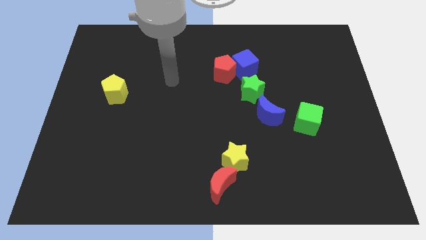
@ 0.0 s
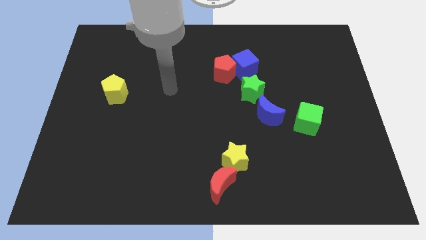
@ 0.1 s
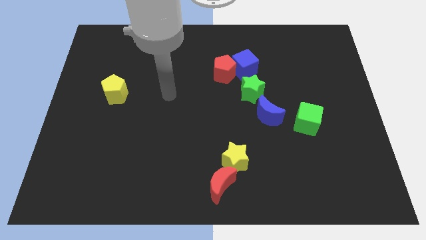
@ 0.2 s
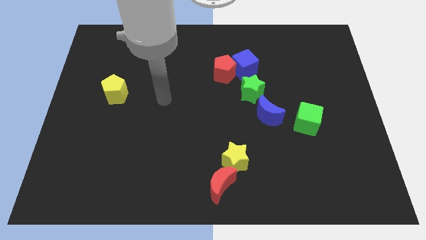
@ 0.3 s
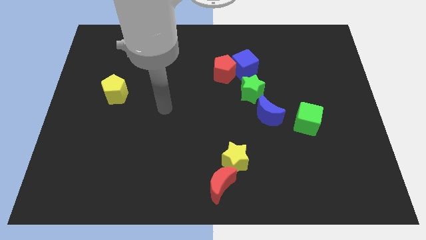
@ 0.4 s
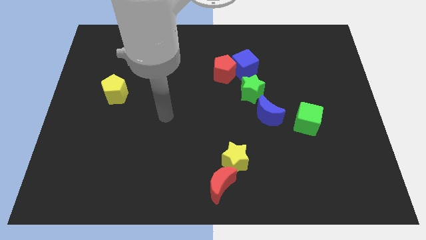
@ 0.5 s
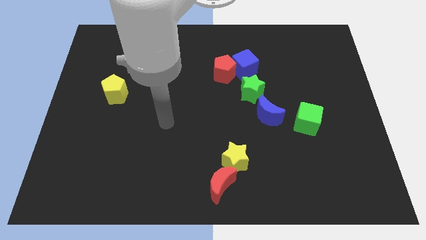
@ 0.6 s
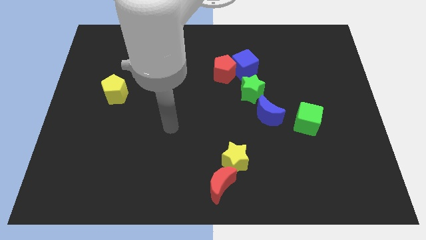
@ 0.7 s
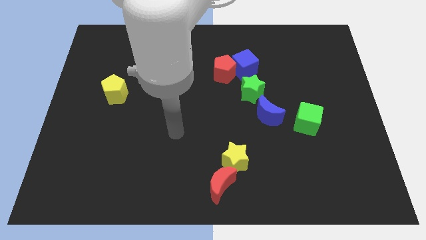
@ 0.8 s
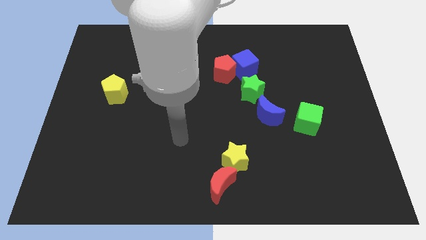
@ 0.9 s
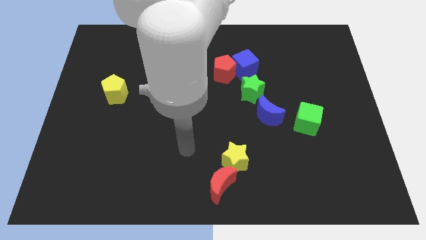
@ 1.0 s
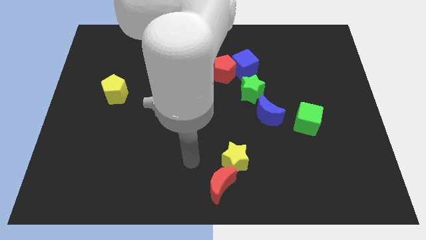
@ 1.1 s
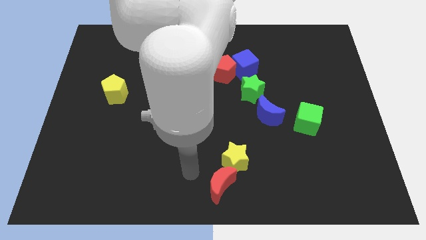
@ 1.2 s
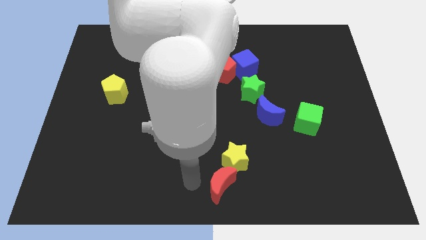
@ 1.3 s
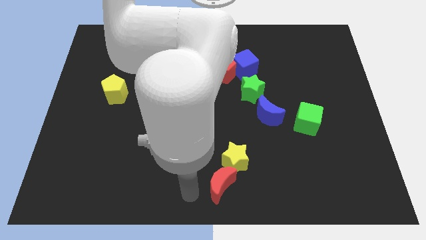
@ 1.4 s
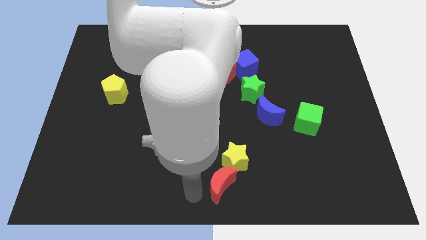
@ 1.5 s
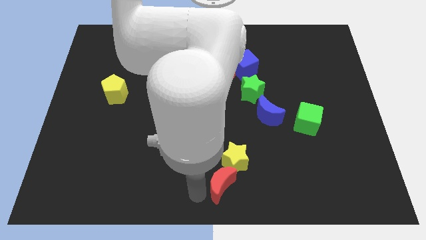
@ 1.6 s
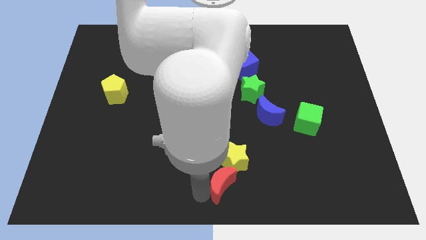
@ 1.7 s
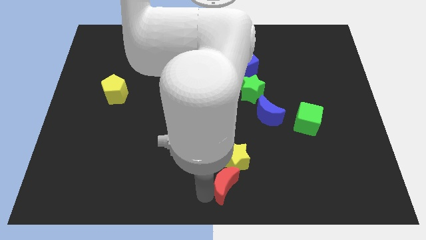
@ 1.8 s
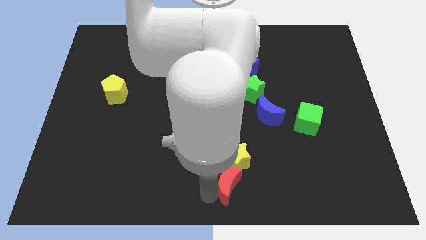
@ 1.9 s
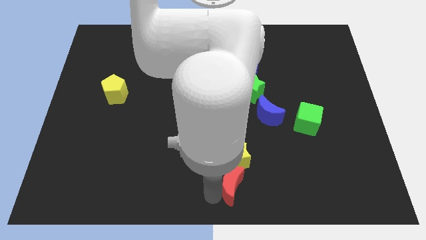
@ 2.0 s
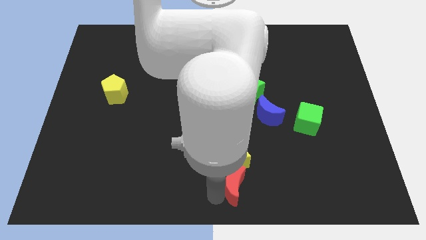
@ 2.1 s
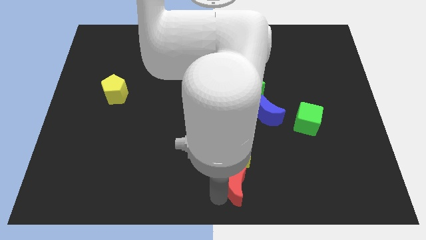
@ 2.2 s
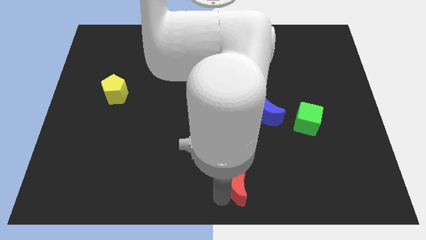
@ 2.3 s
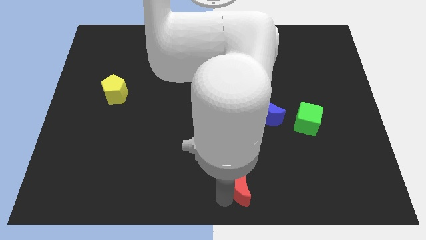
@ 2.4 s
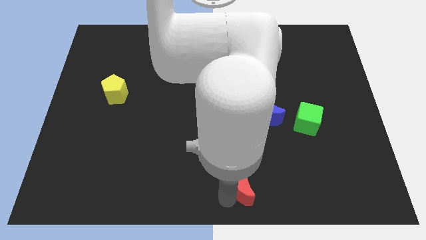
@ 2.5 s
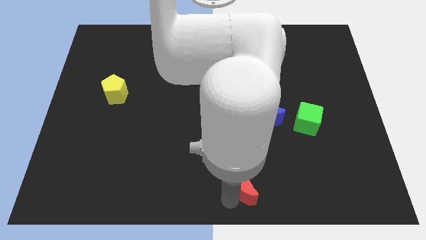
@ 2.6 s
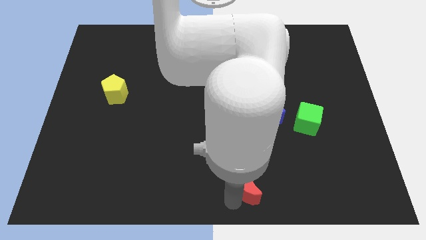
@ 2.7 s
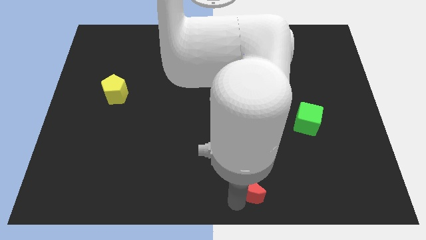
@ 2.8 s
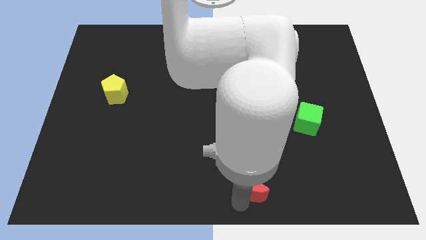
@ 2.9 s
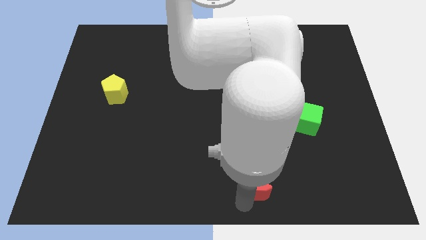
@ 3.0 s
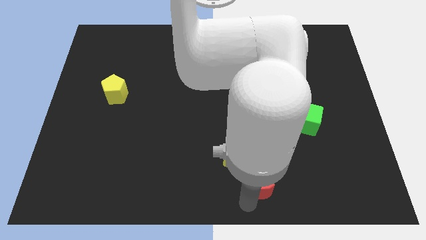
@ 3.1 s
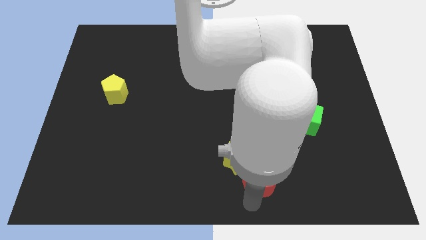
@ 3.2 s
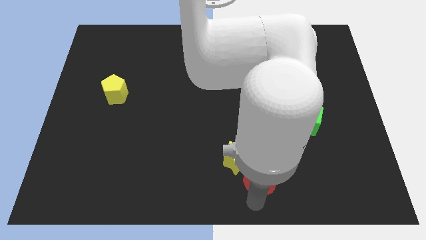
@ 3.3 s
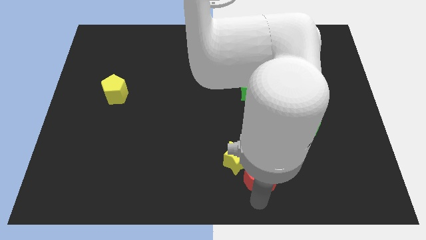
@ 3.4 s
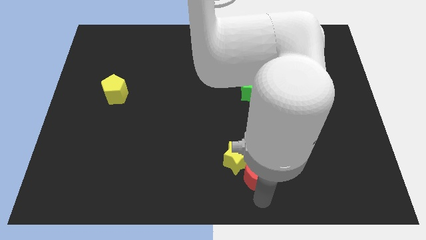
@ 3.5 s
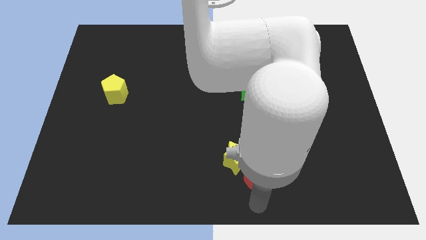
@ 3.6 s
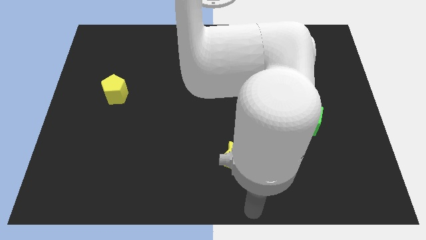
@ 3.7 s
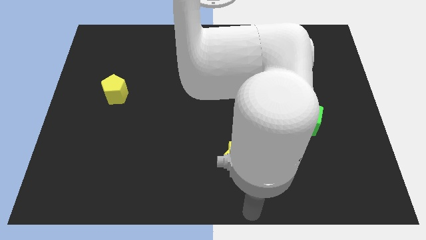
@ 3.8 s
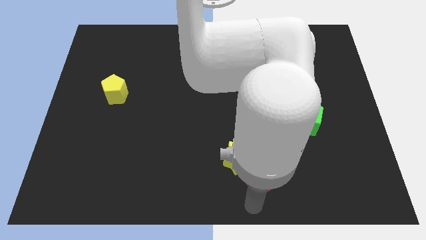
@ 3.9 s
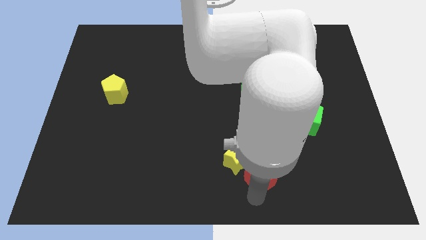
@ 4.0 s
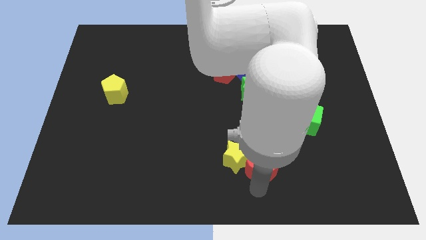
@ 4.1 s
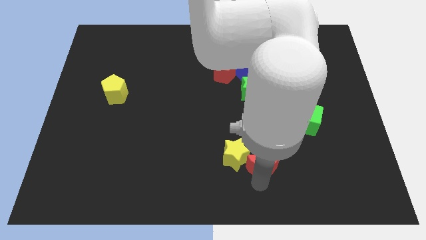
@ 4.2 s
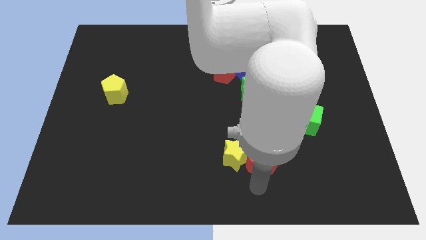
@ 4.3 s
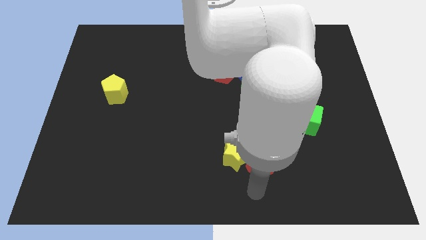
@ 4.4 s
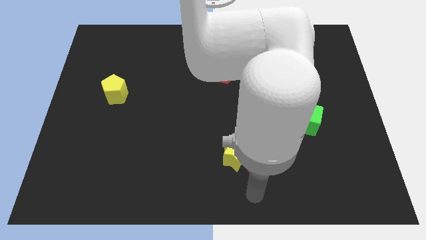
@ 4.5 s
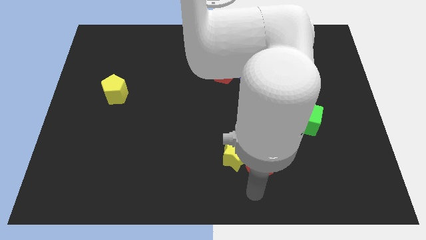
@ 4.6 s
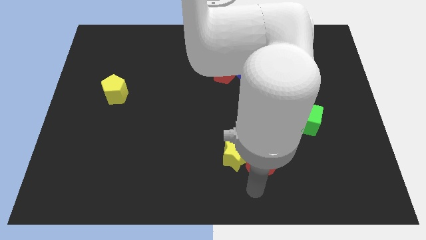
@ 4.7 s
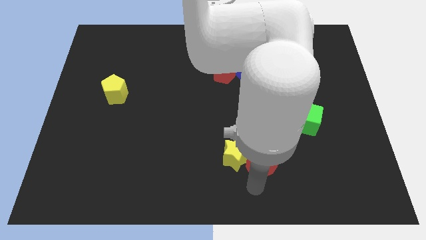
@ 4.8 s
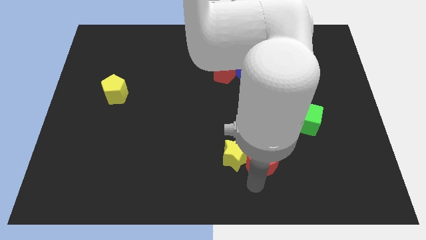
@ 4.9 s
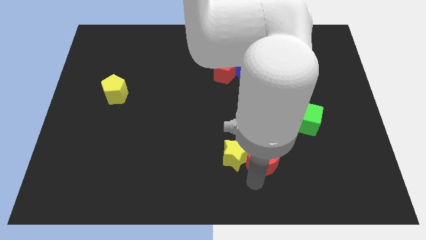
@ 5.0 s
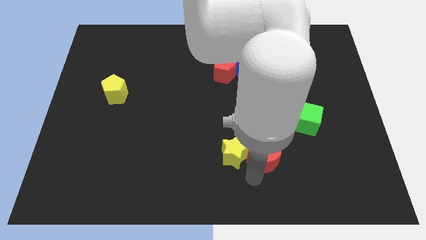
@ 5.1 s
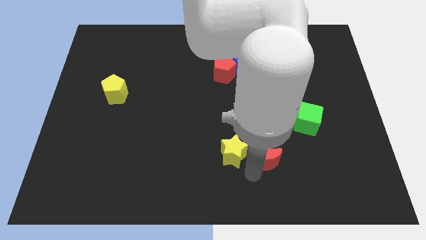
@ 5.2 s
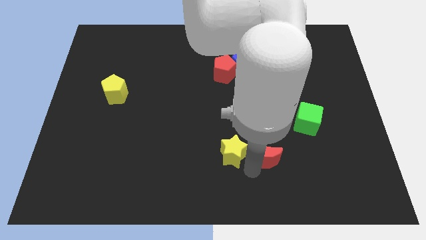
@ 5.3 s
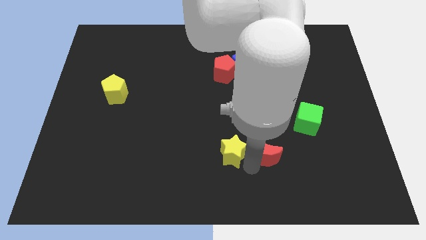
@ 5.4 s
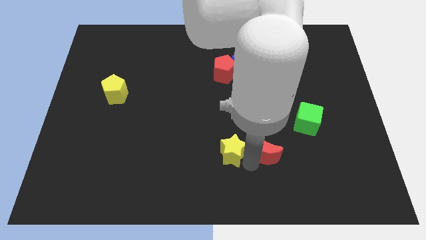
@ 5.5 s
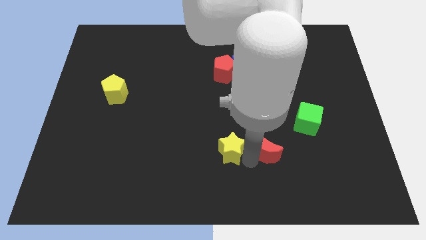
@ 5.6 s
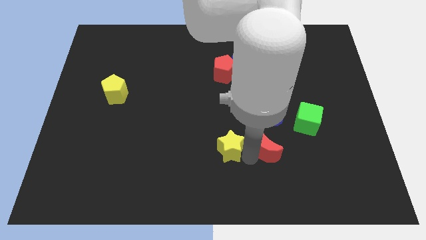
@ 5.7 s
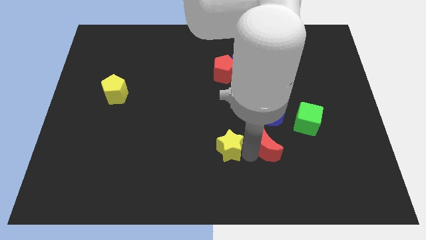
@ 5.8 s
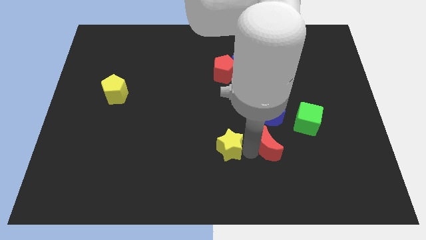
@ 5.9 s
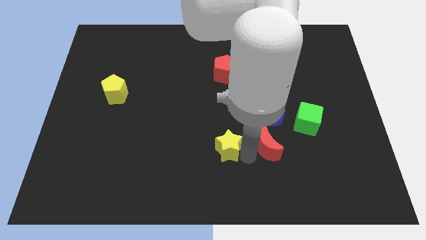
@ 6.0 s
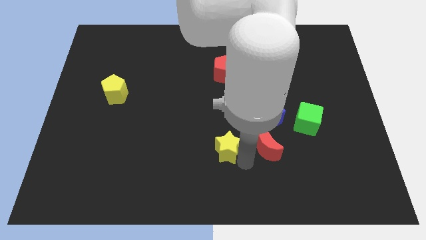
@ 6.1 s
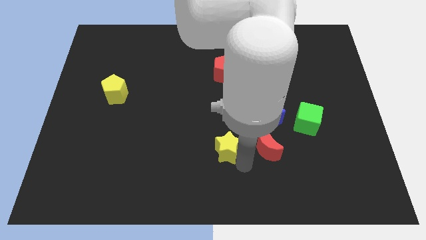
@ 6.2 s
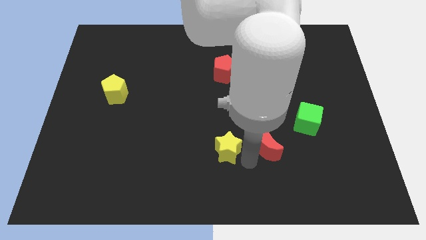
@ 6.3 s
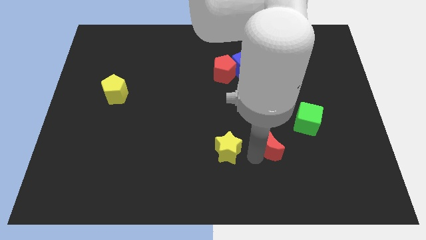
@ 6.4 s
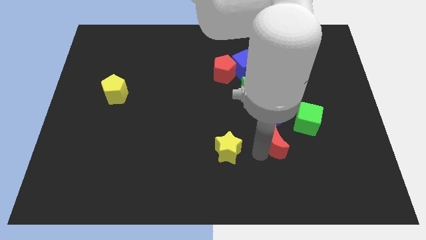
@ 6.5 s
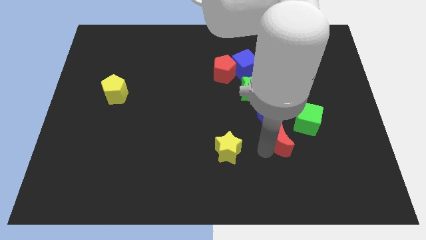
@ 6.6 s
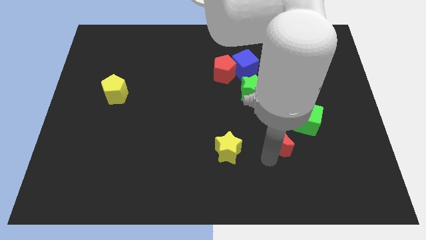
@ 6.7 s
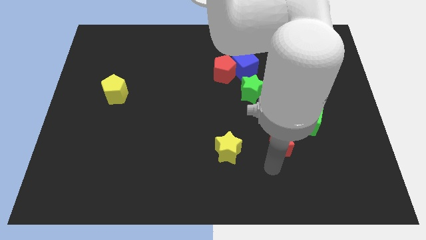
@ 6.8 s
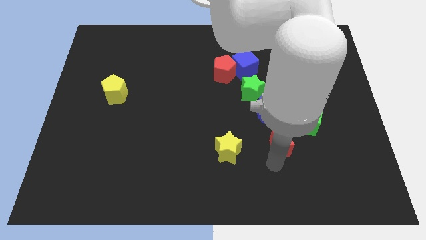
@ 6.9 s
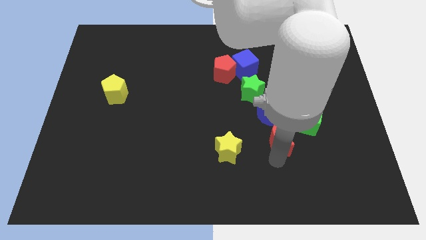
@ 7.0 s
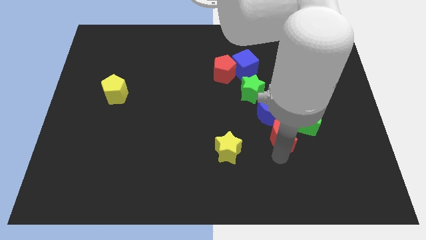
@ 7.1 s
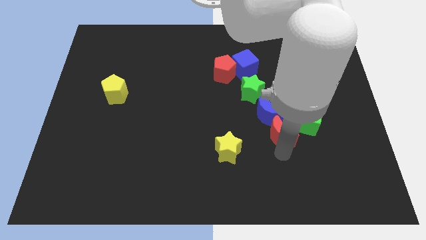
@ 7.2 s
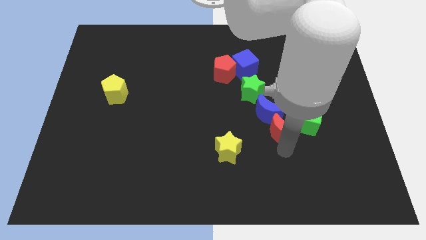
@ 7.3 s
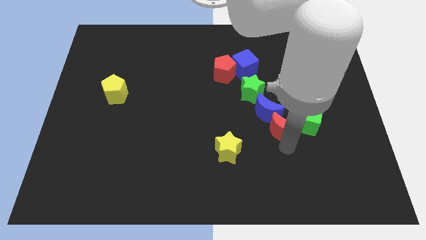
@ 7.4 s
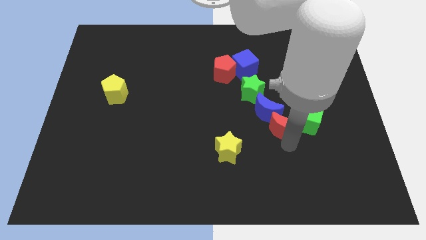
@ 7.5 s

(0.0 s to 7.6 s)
push the red moon diagonally up and right

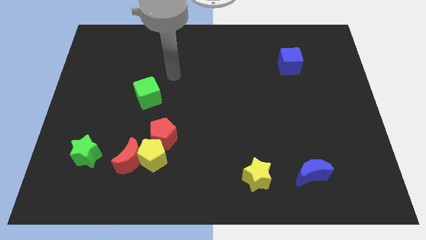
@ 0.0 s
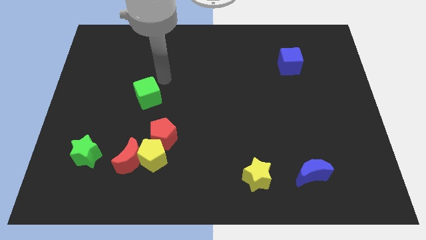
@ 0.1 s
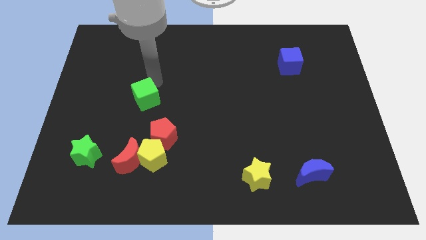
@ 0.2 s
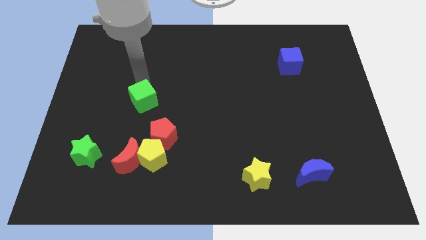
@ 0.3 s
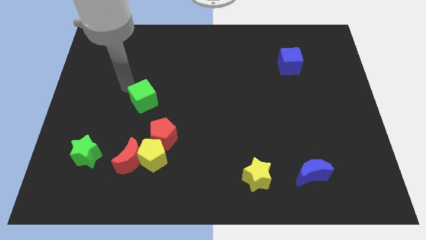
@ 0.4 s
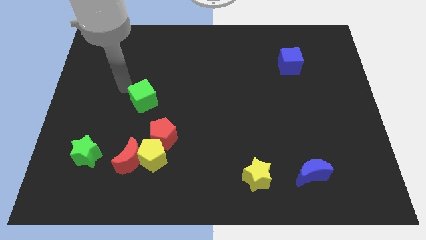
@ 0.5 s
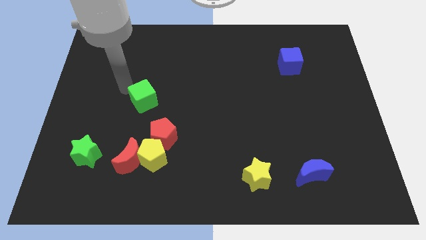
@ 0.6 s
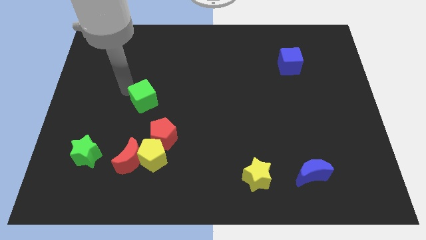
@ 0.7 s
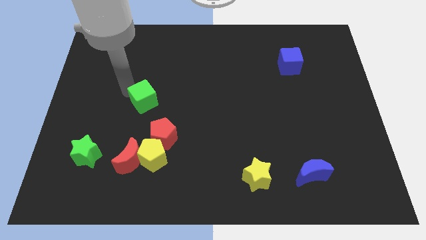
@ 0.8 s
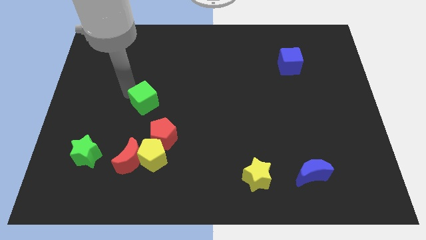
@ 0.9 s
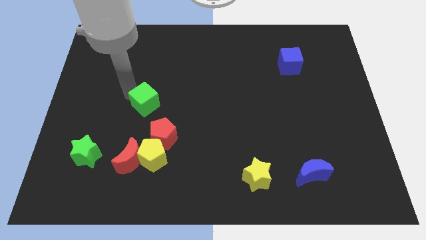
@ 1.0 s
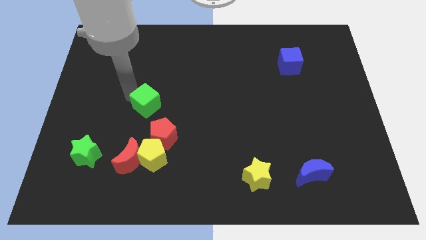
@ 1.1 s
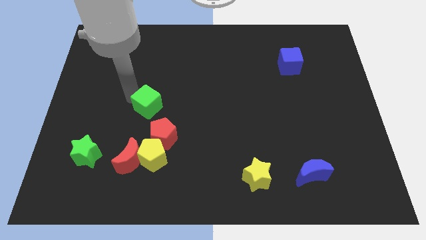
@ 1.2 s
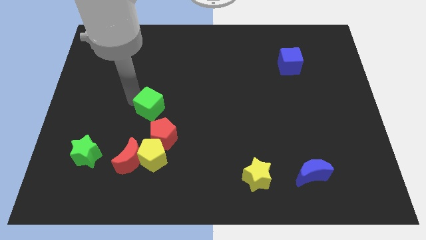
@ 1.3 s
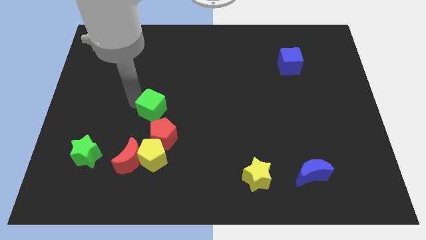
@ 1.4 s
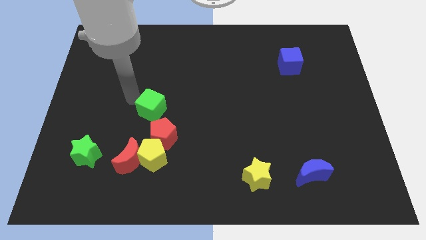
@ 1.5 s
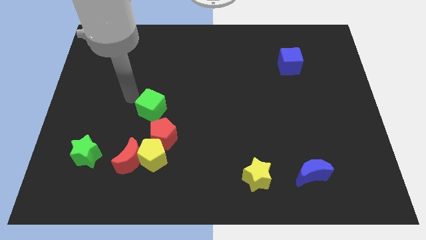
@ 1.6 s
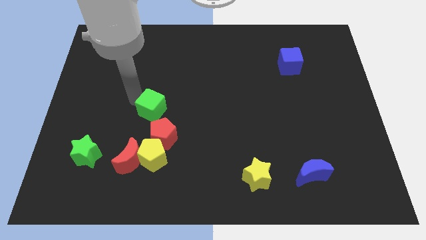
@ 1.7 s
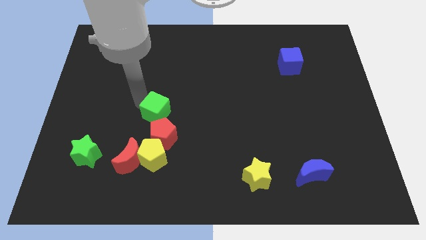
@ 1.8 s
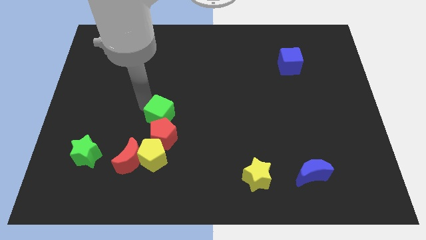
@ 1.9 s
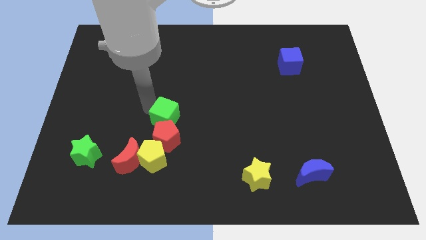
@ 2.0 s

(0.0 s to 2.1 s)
move the green cube somewhat diagonally down and to the right
